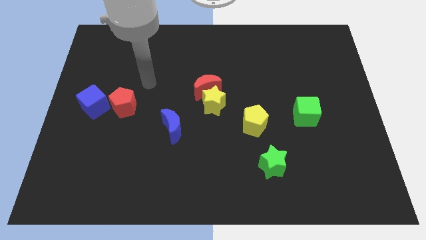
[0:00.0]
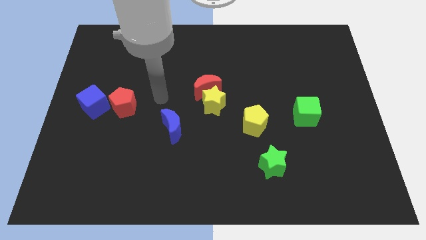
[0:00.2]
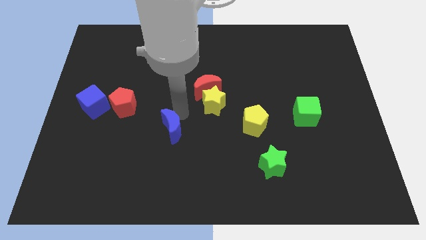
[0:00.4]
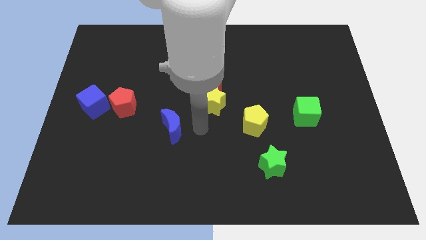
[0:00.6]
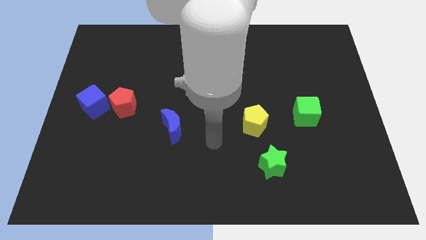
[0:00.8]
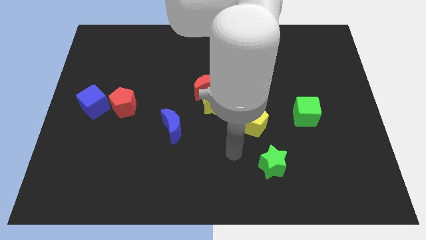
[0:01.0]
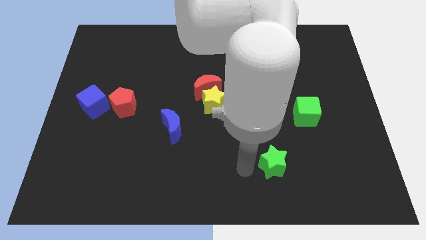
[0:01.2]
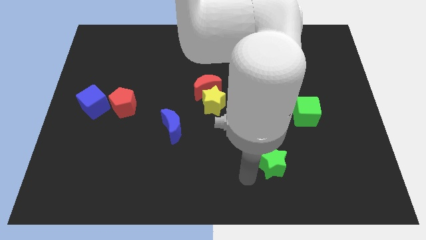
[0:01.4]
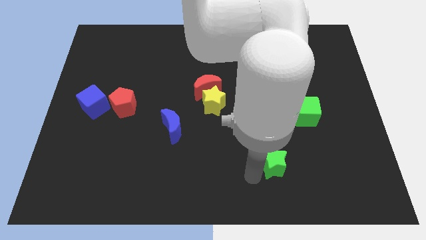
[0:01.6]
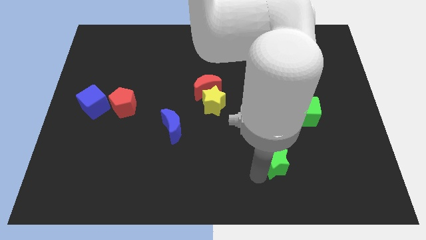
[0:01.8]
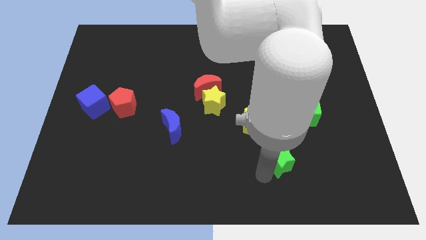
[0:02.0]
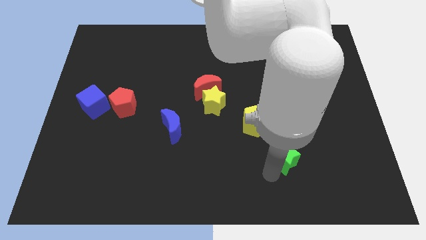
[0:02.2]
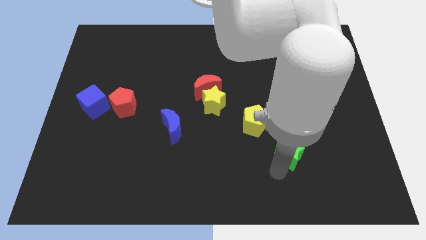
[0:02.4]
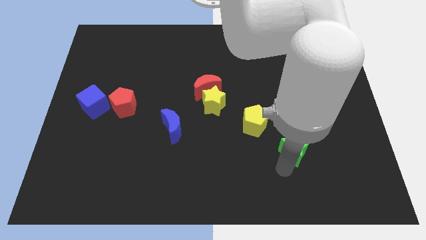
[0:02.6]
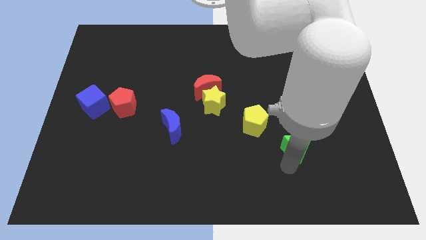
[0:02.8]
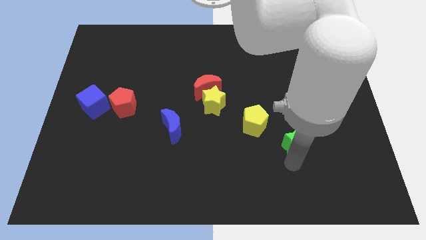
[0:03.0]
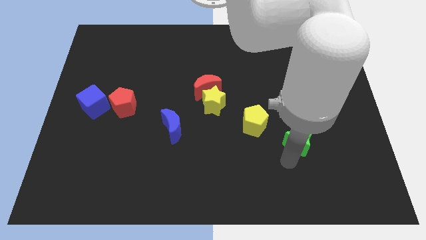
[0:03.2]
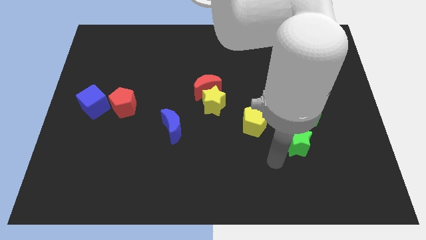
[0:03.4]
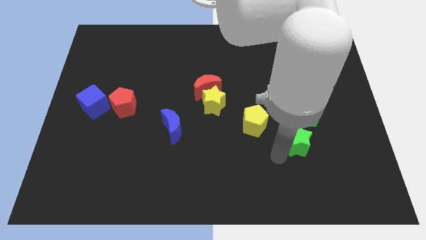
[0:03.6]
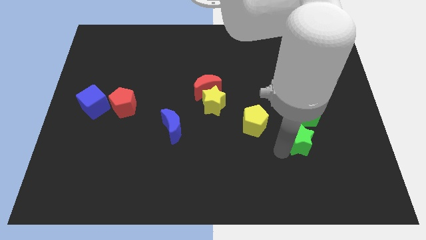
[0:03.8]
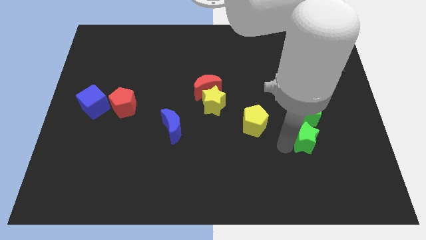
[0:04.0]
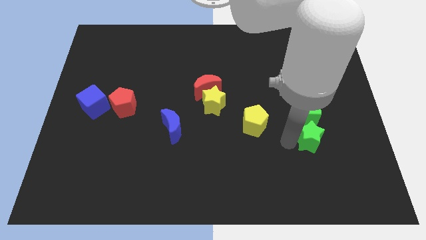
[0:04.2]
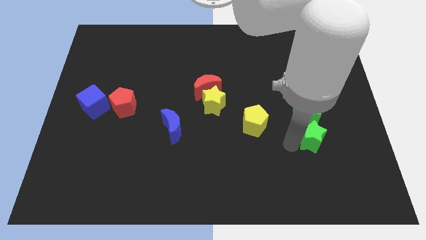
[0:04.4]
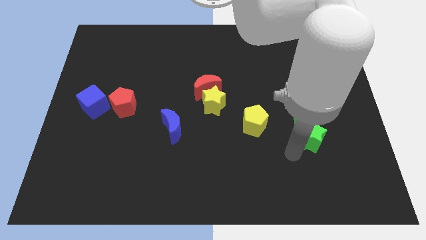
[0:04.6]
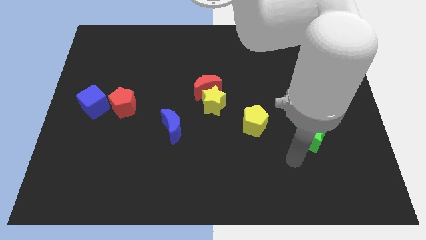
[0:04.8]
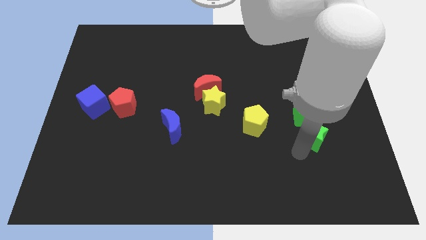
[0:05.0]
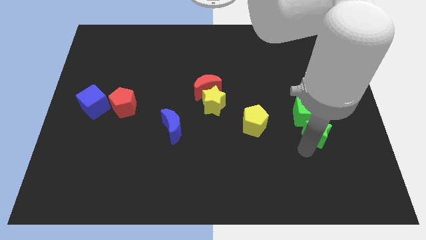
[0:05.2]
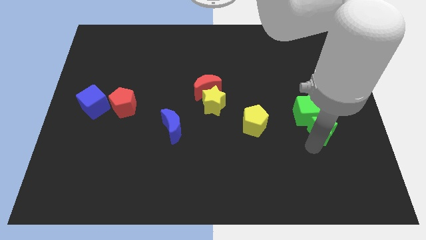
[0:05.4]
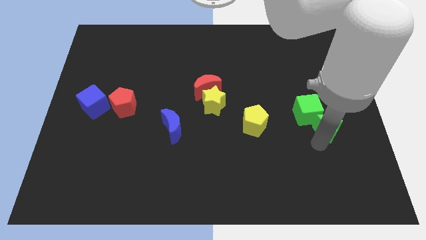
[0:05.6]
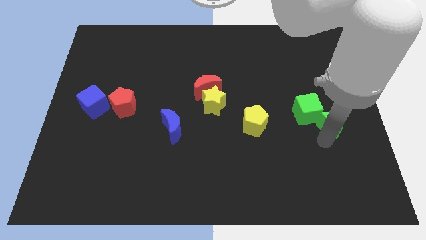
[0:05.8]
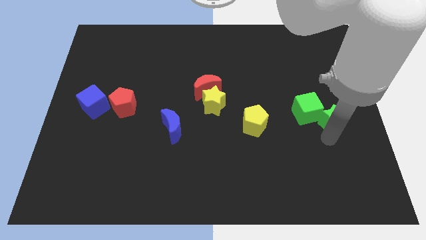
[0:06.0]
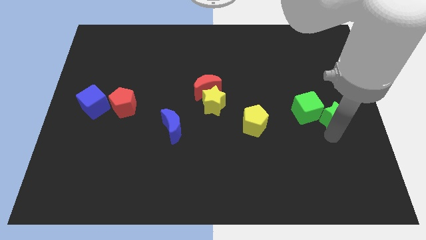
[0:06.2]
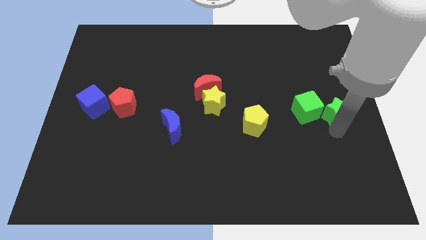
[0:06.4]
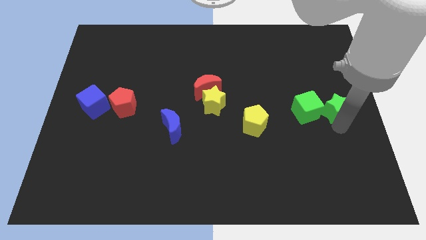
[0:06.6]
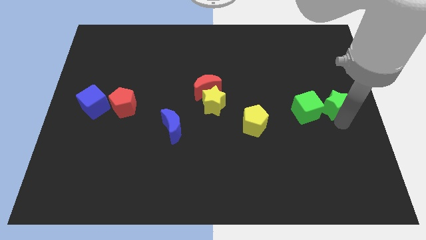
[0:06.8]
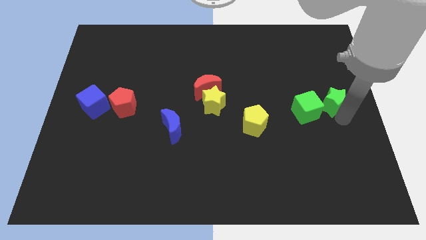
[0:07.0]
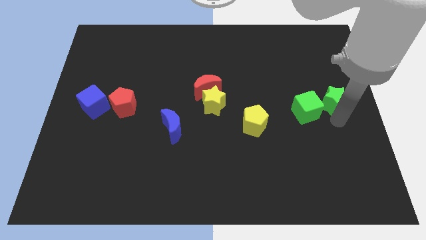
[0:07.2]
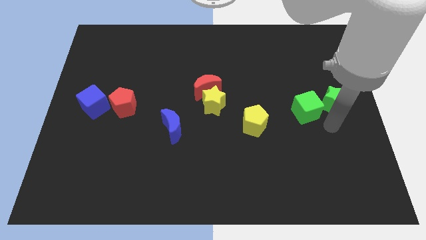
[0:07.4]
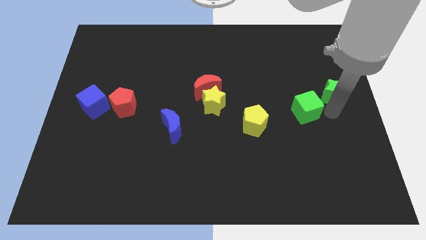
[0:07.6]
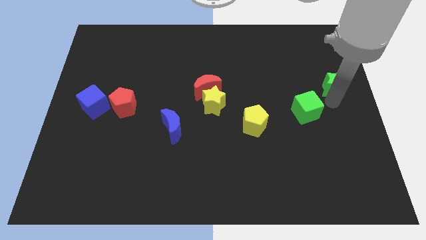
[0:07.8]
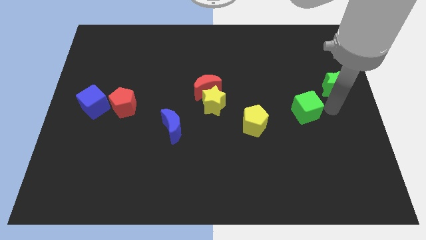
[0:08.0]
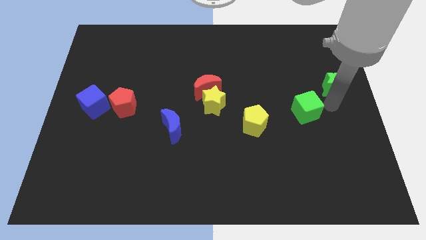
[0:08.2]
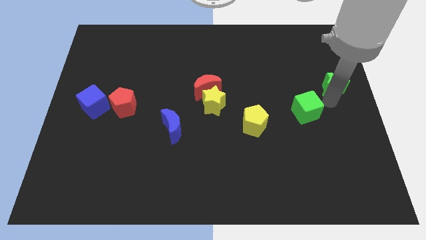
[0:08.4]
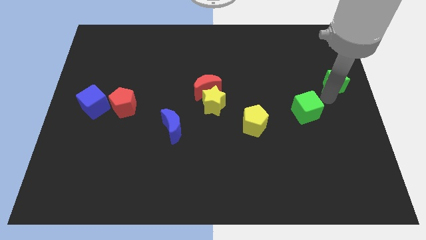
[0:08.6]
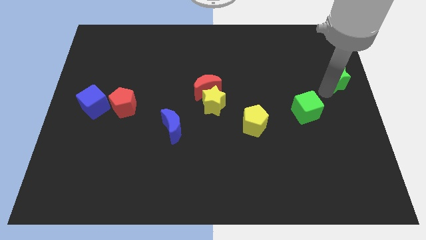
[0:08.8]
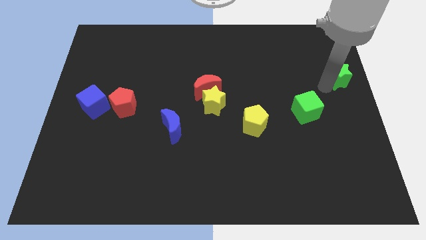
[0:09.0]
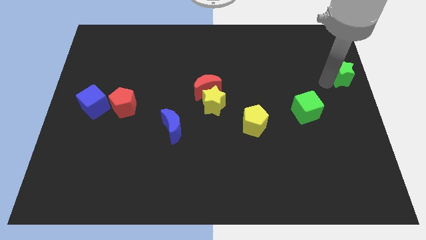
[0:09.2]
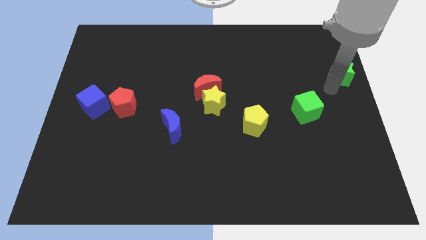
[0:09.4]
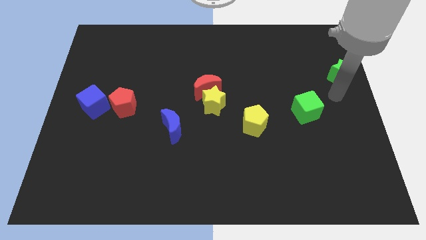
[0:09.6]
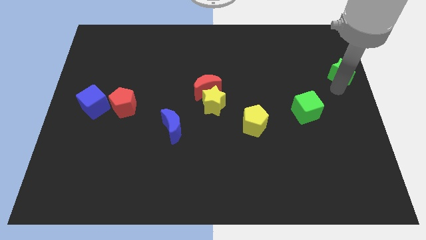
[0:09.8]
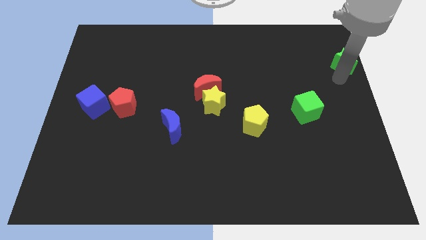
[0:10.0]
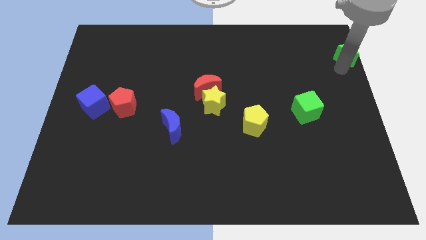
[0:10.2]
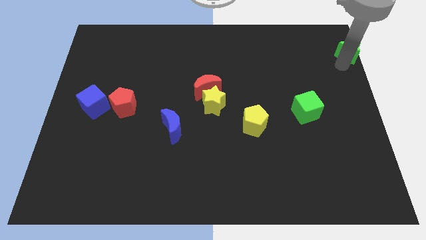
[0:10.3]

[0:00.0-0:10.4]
push the green star to the upper right corner
